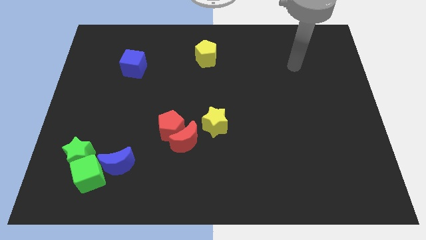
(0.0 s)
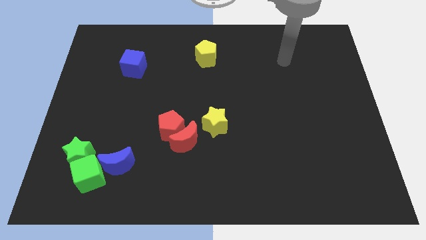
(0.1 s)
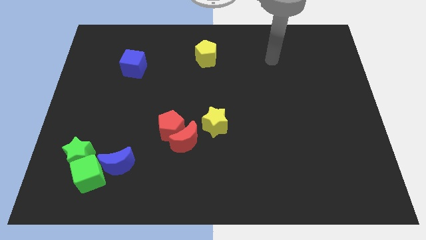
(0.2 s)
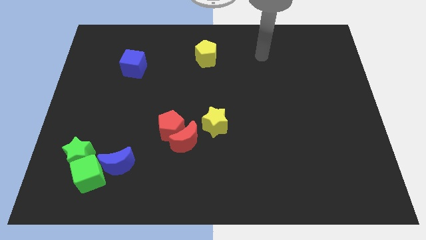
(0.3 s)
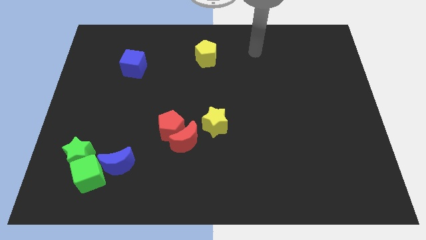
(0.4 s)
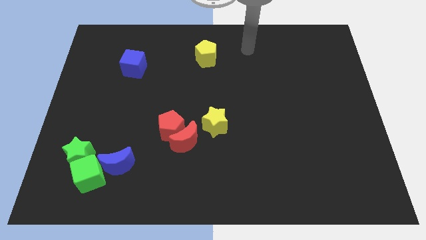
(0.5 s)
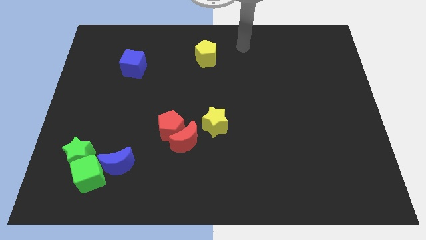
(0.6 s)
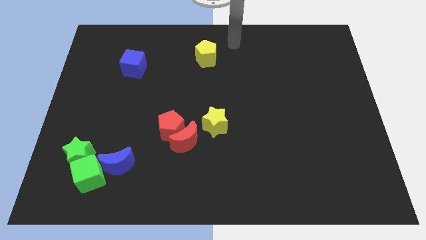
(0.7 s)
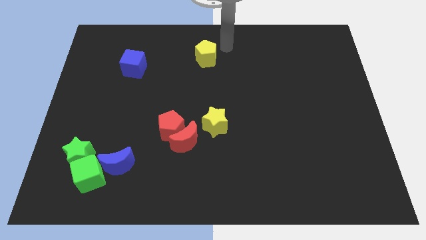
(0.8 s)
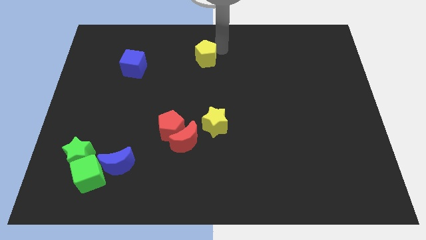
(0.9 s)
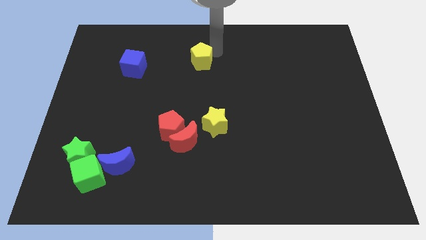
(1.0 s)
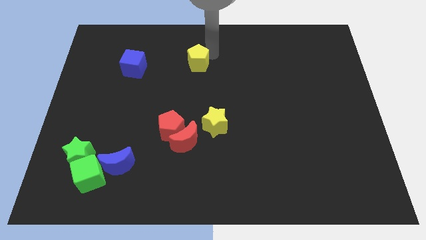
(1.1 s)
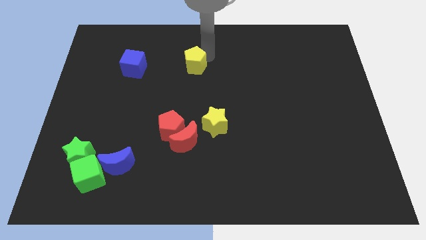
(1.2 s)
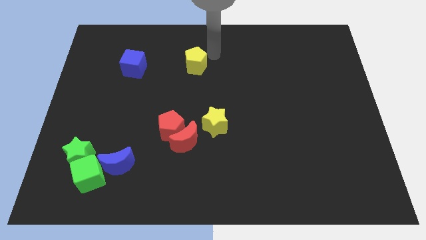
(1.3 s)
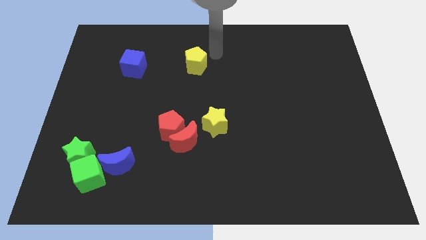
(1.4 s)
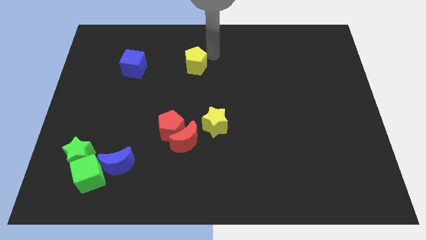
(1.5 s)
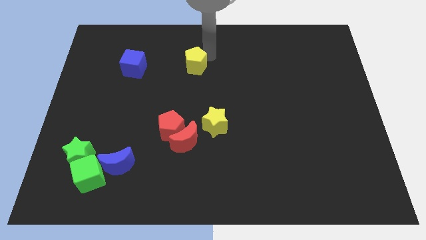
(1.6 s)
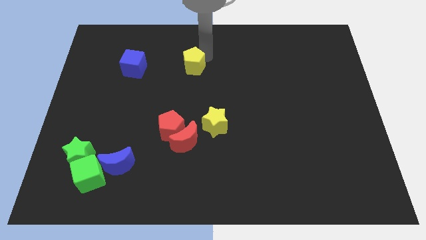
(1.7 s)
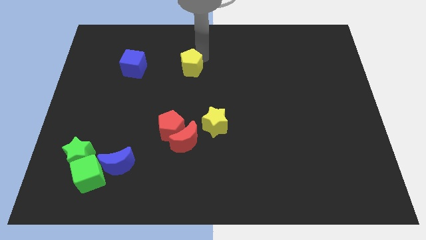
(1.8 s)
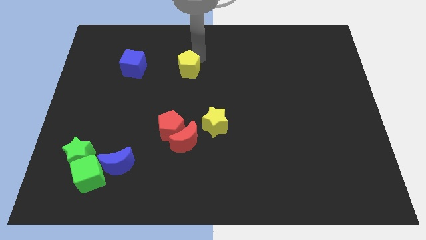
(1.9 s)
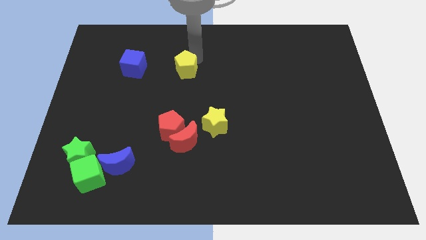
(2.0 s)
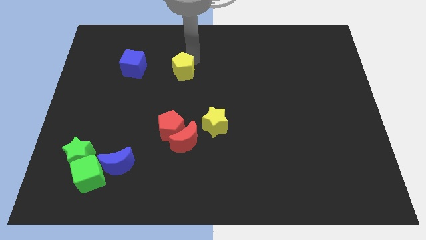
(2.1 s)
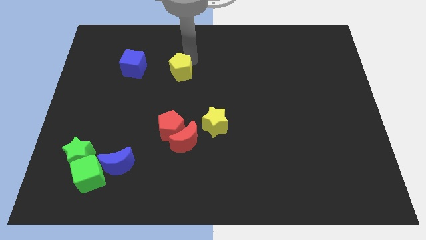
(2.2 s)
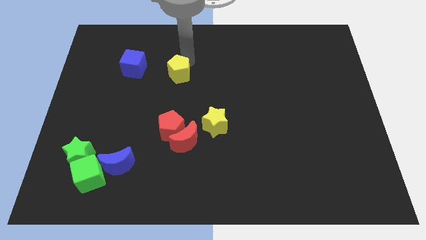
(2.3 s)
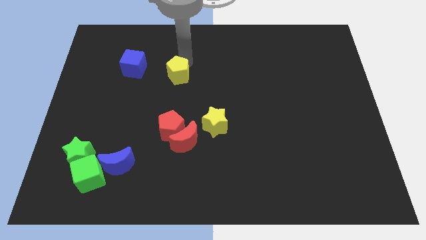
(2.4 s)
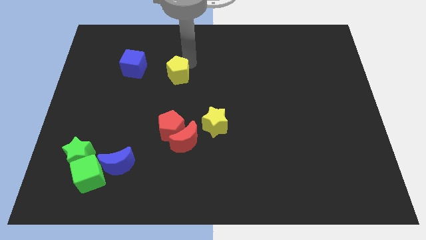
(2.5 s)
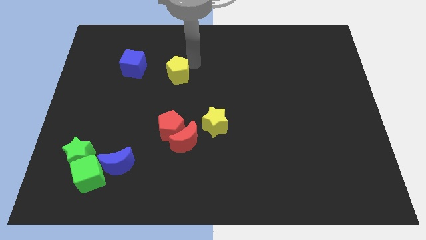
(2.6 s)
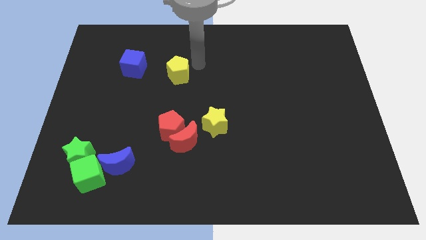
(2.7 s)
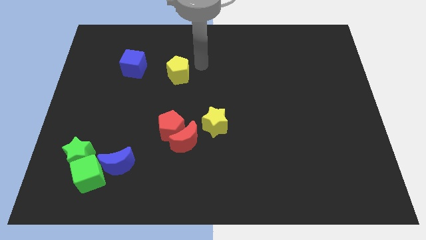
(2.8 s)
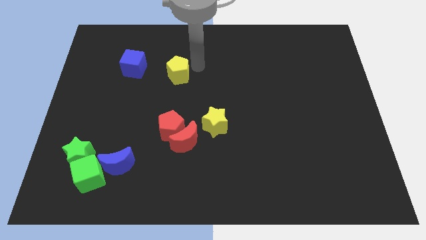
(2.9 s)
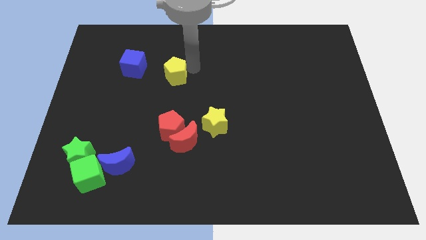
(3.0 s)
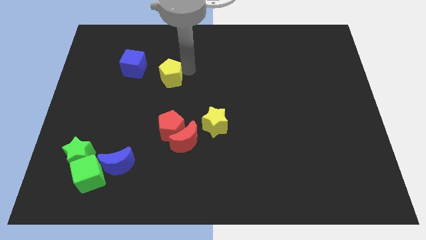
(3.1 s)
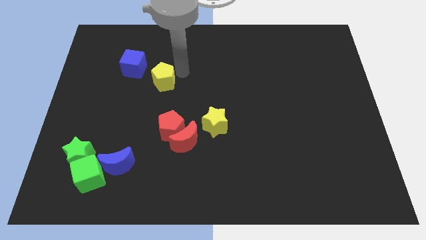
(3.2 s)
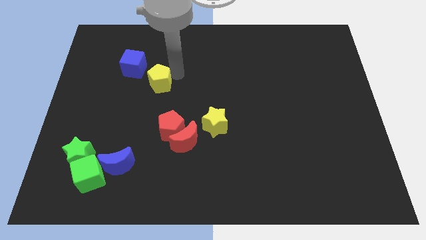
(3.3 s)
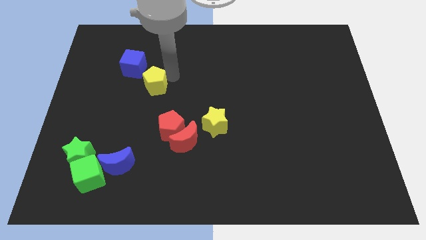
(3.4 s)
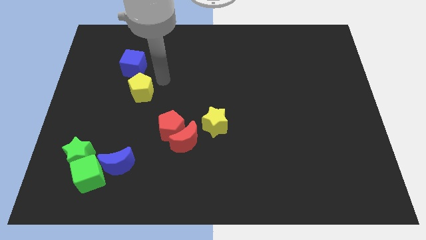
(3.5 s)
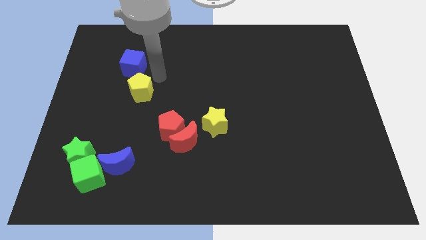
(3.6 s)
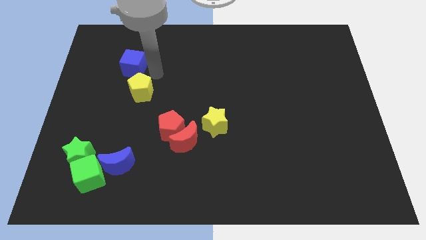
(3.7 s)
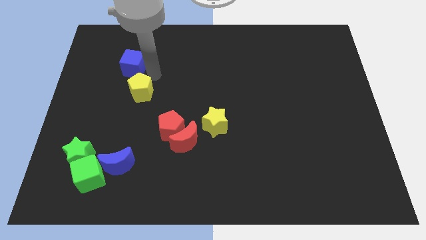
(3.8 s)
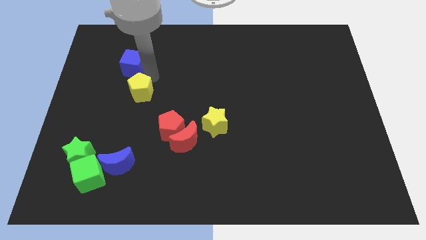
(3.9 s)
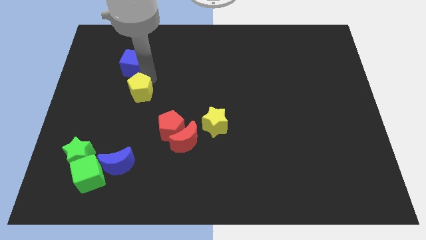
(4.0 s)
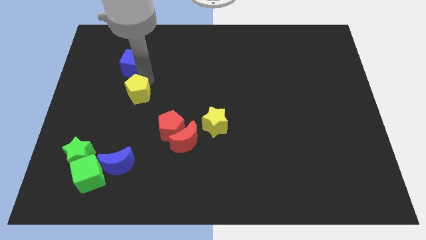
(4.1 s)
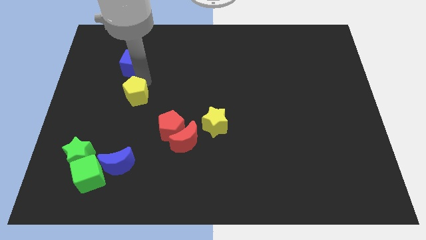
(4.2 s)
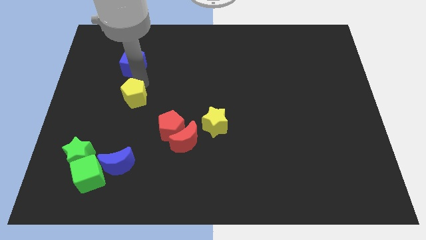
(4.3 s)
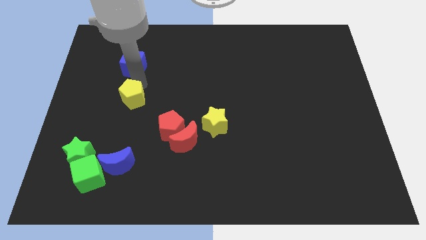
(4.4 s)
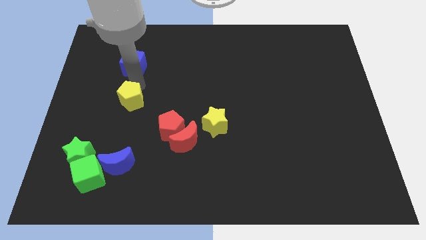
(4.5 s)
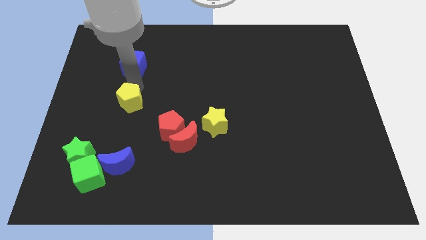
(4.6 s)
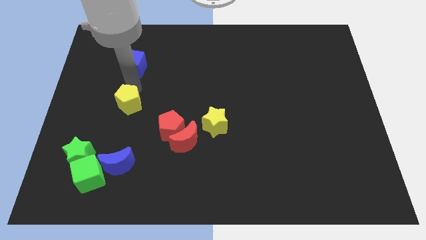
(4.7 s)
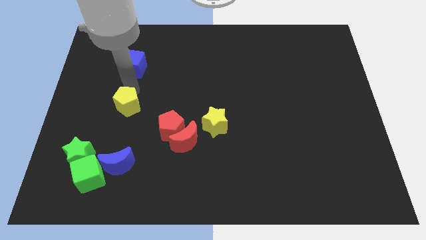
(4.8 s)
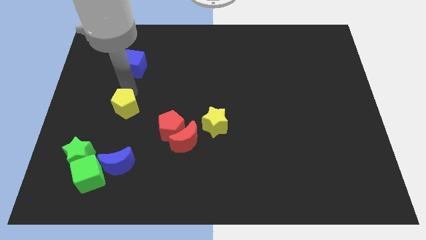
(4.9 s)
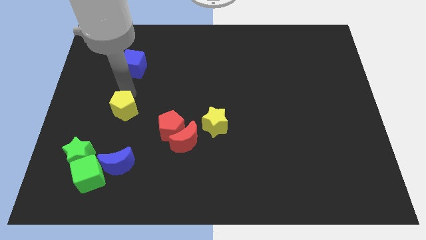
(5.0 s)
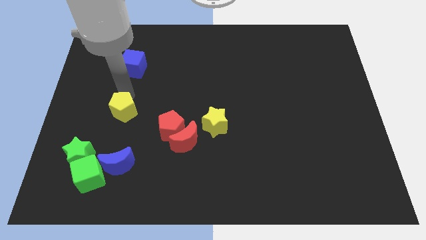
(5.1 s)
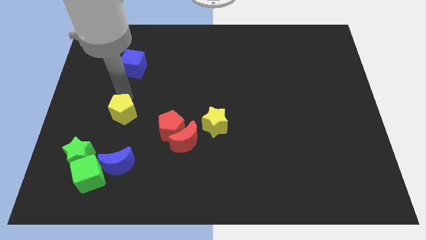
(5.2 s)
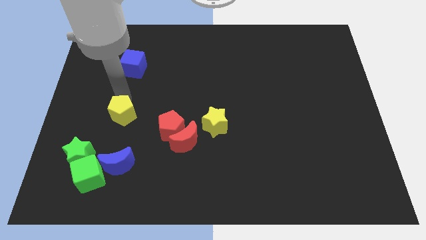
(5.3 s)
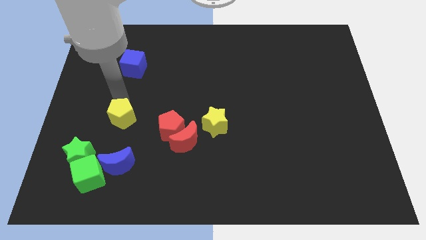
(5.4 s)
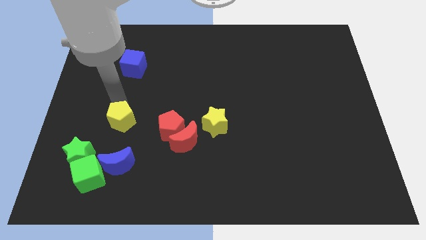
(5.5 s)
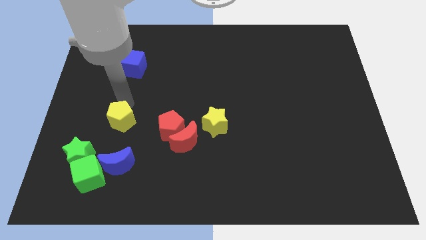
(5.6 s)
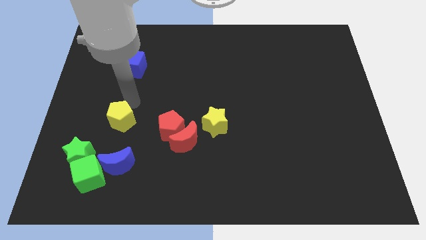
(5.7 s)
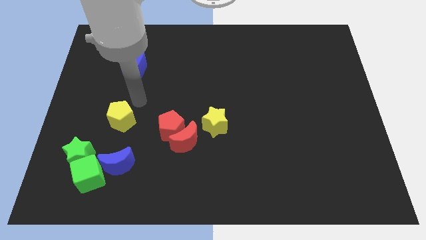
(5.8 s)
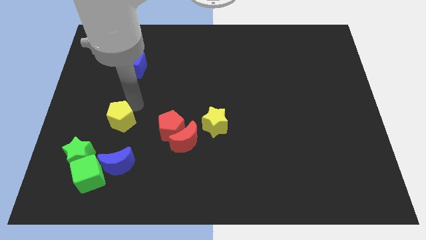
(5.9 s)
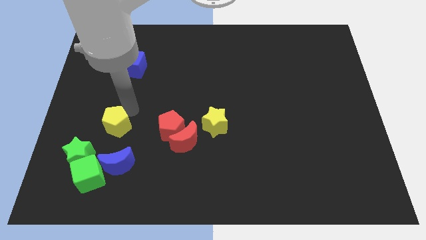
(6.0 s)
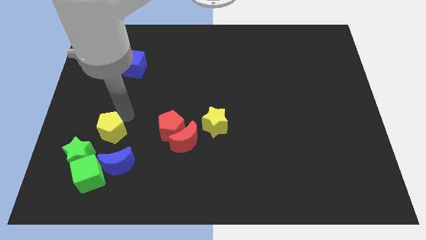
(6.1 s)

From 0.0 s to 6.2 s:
slide the yellow pentagon diagonally up and to the left of the blue moon
